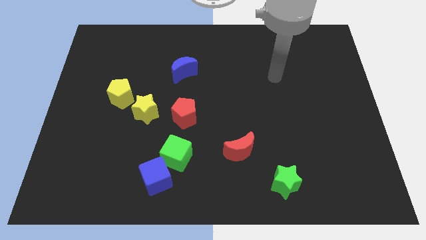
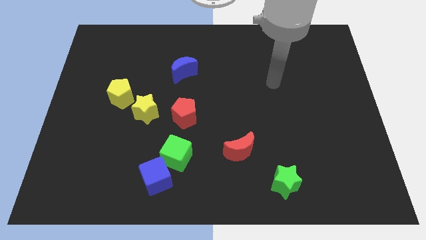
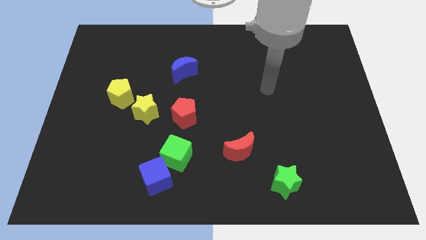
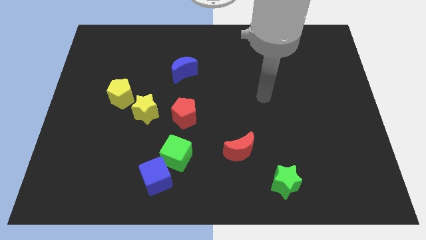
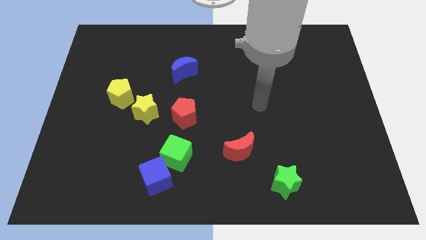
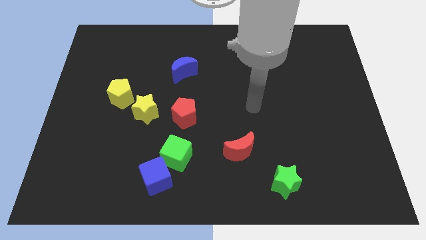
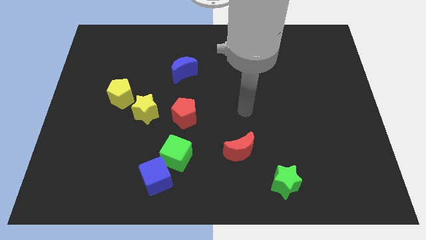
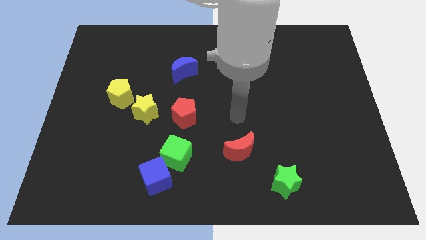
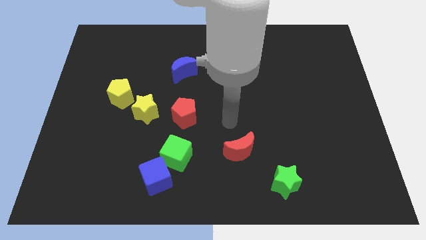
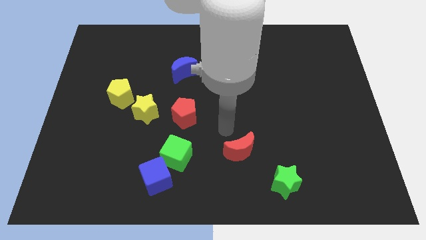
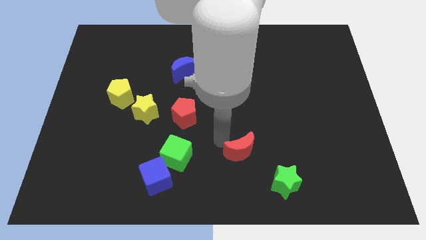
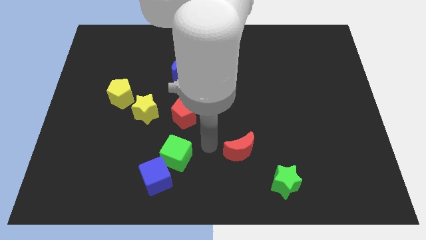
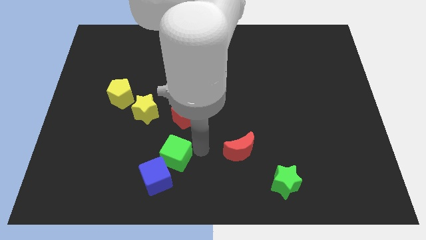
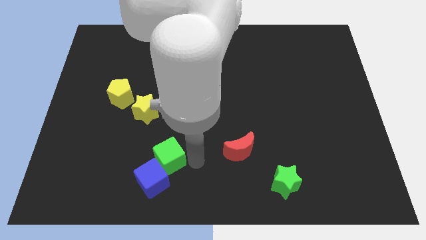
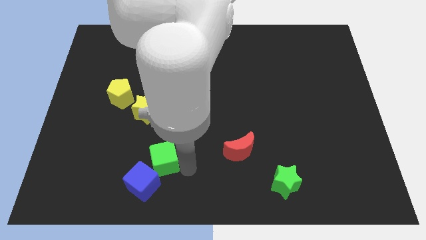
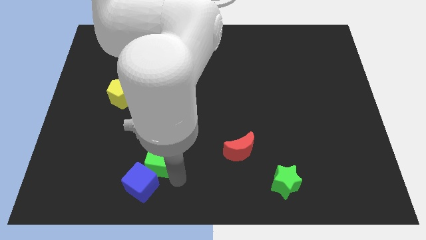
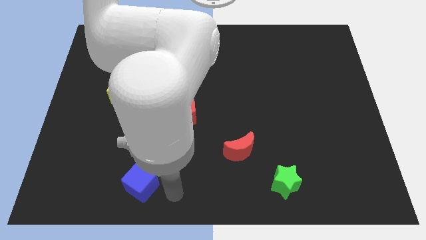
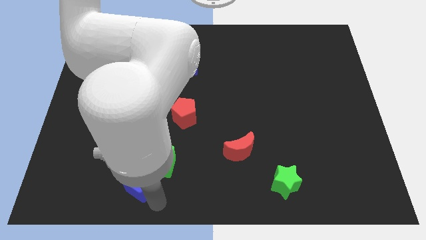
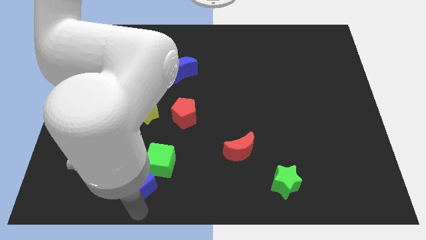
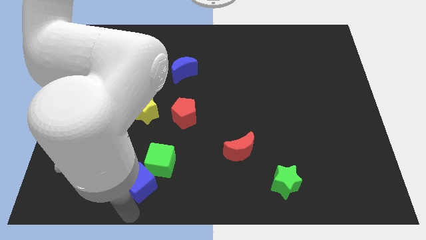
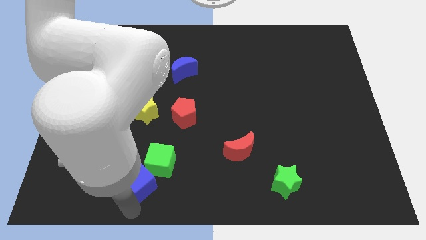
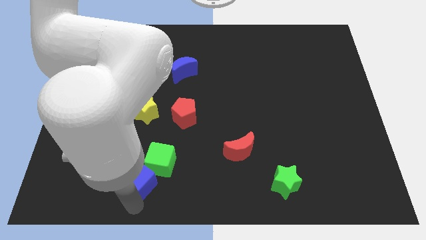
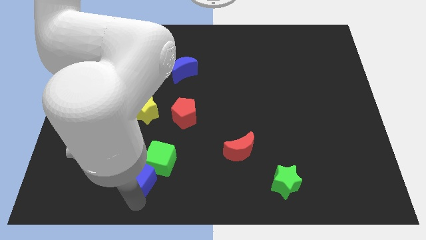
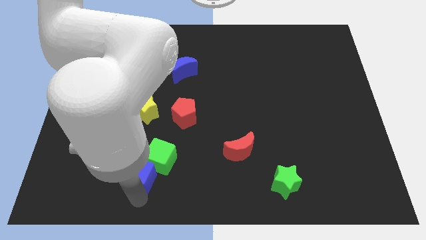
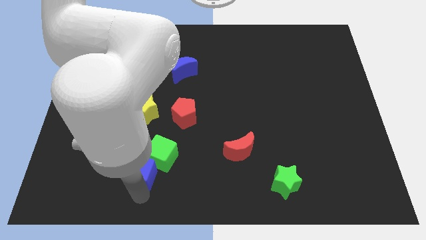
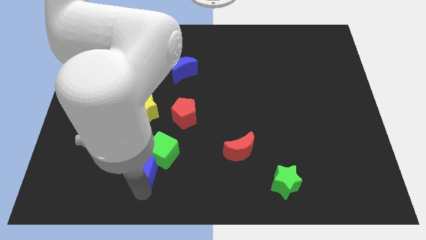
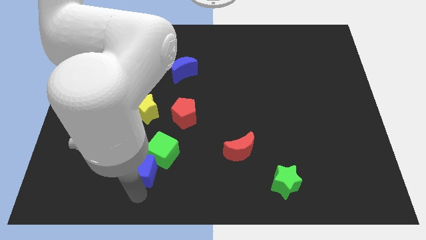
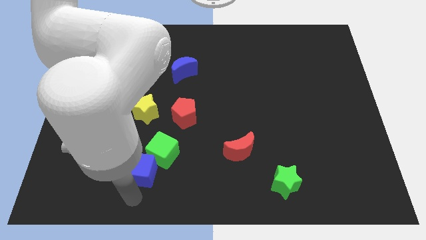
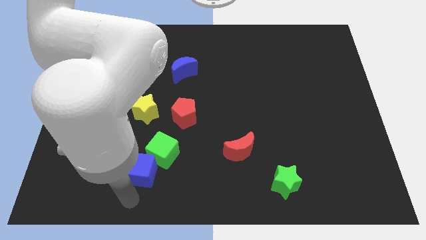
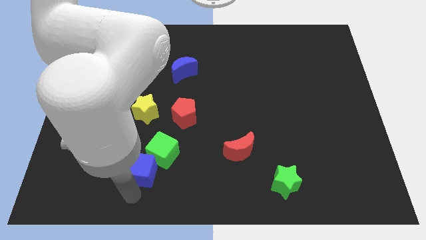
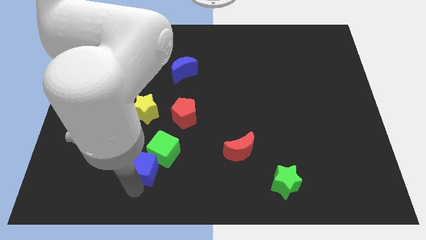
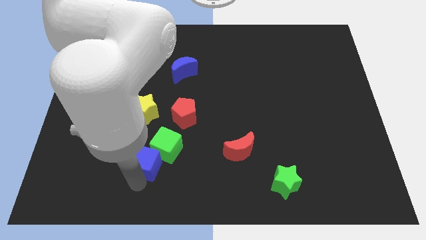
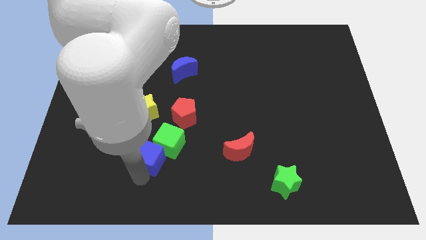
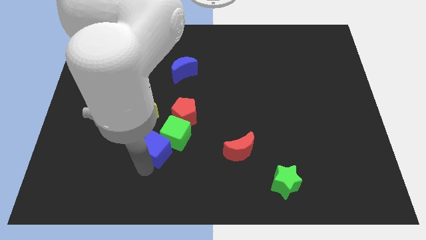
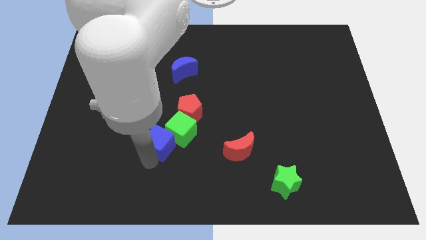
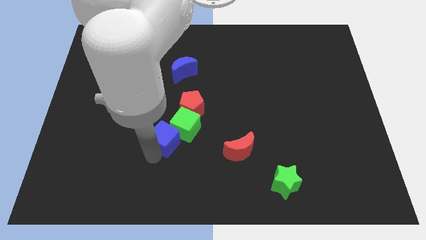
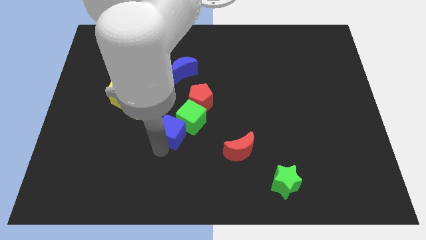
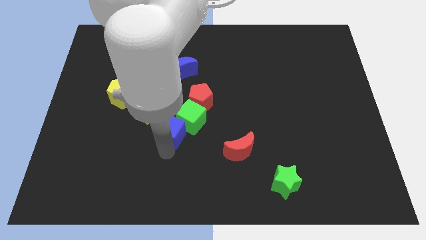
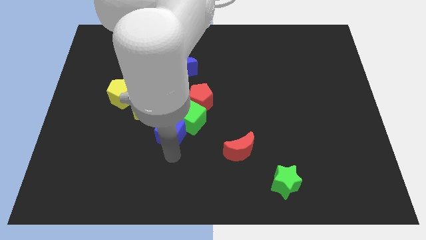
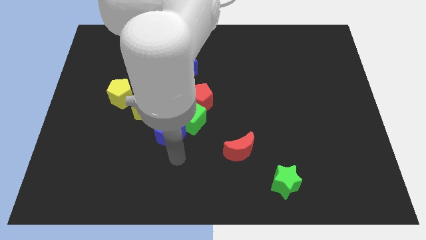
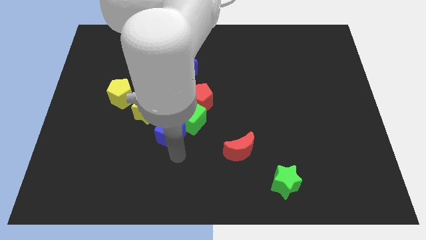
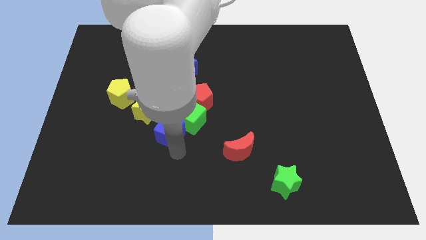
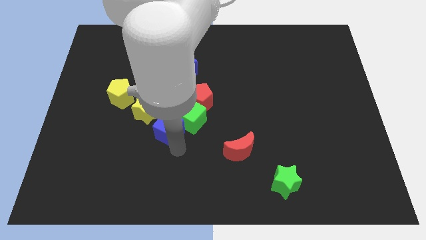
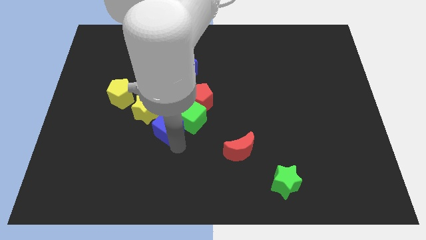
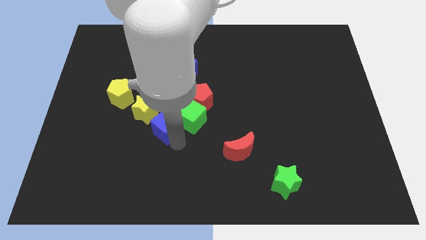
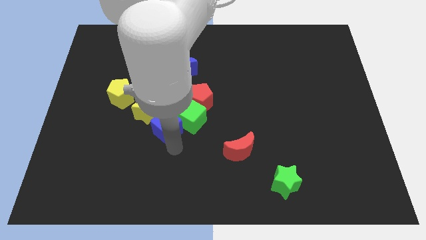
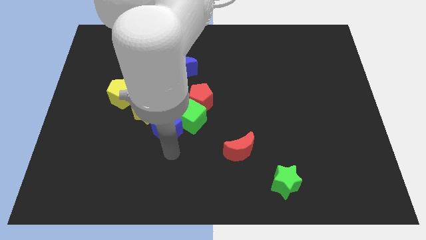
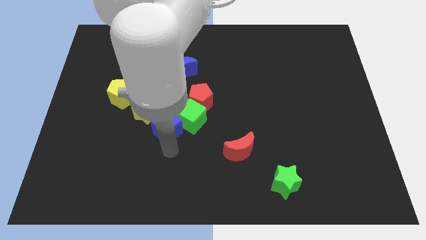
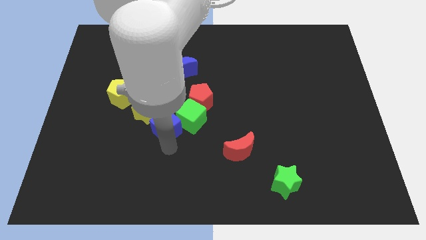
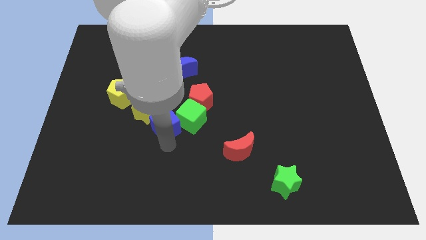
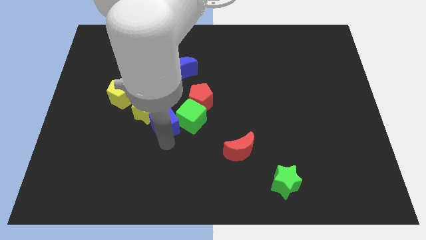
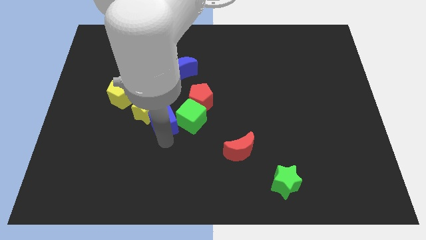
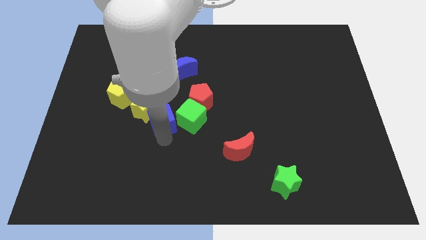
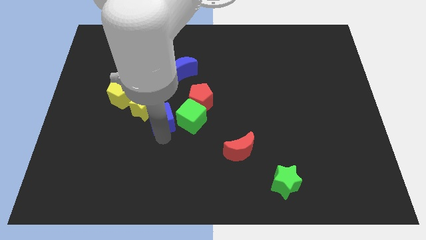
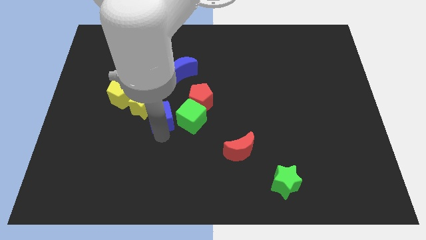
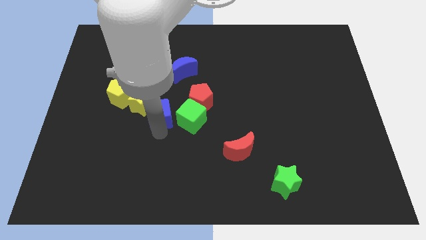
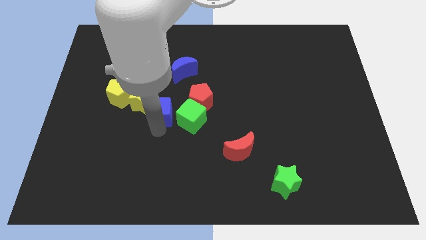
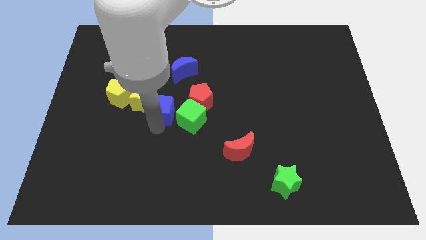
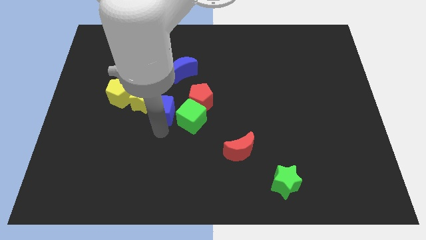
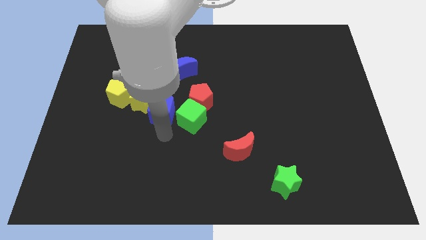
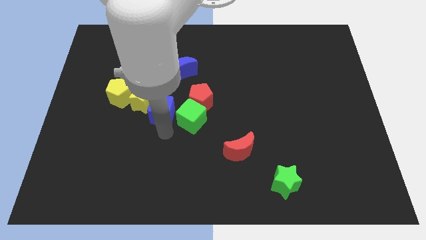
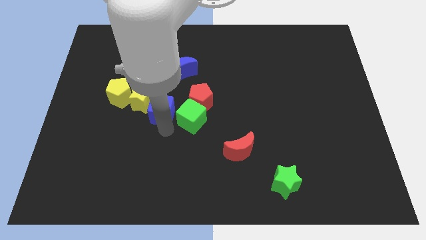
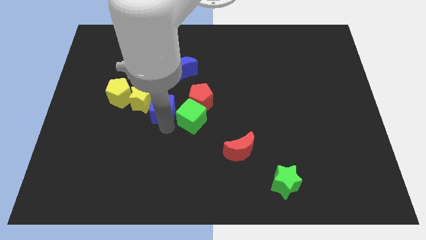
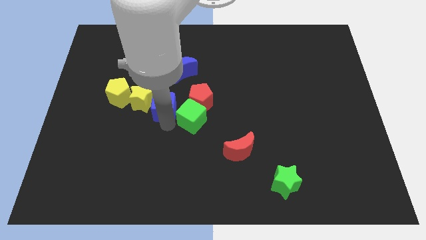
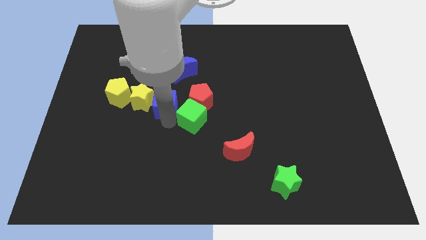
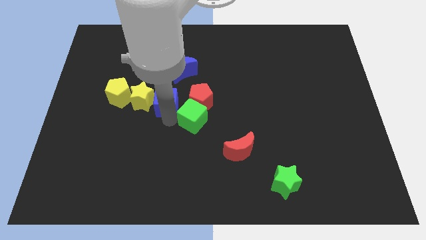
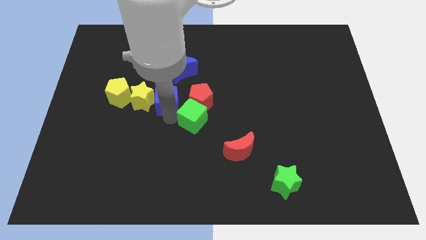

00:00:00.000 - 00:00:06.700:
push the blue cube upwards

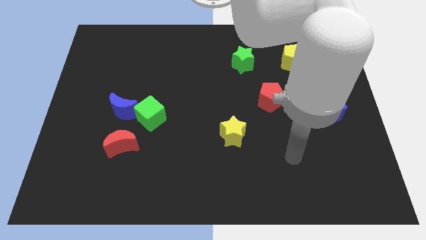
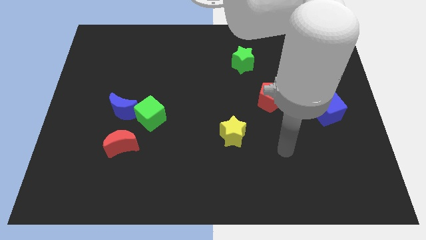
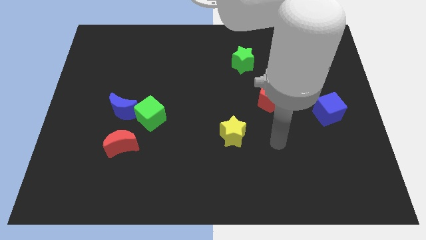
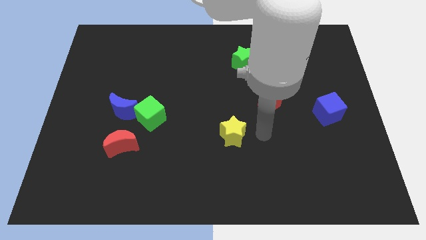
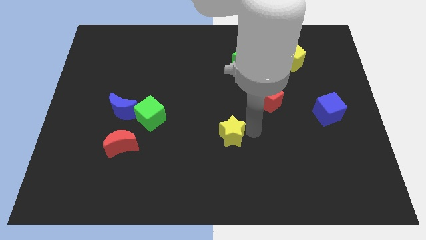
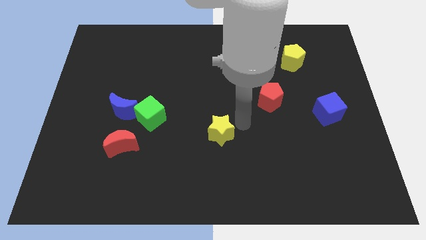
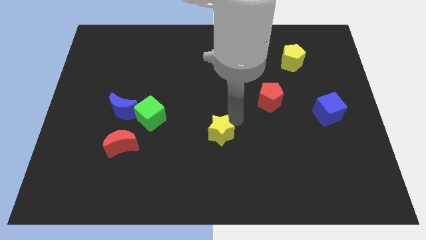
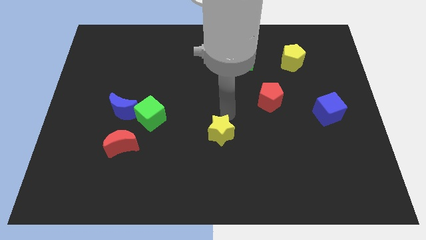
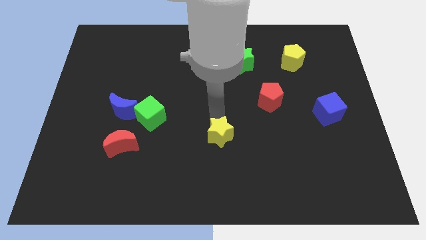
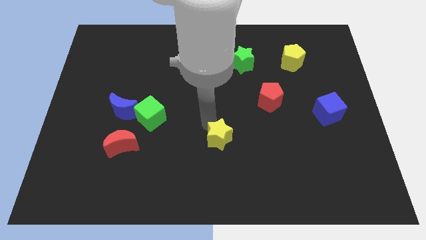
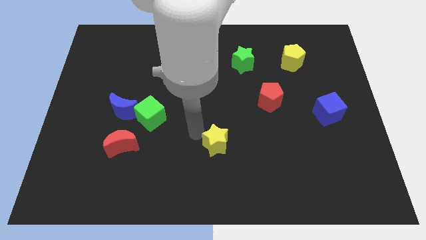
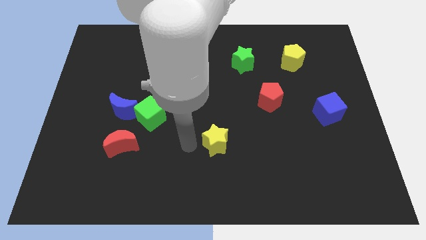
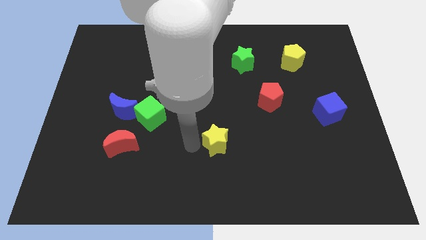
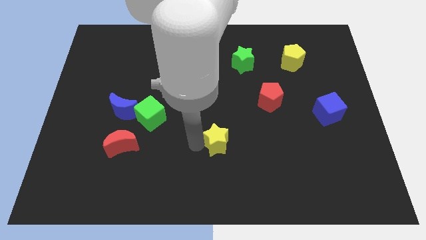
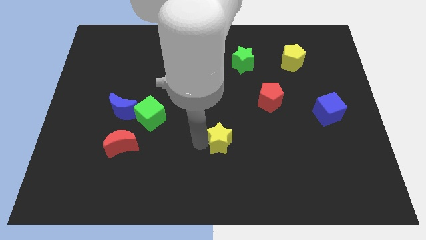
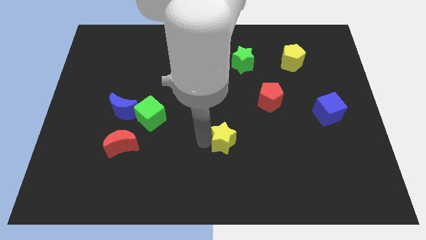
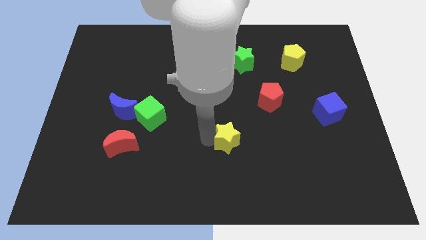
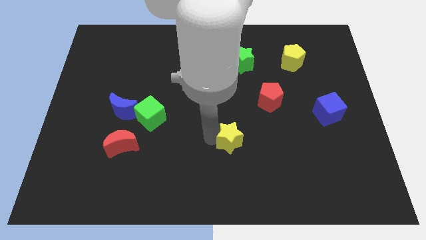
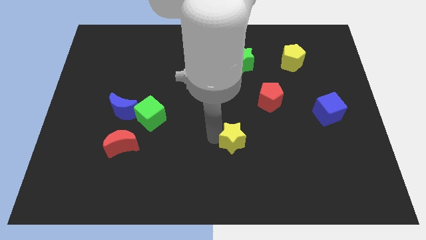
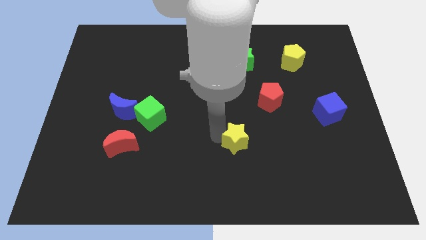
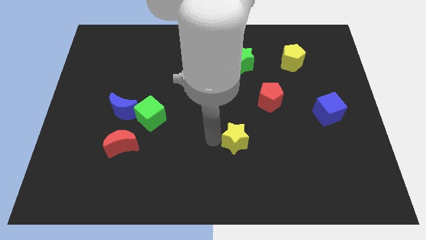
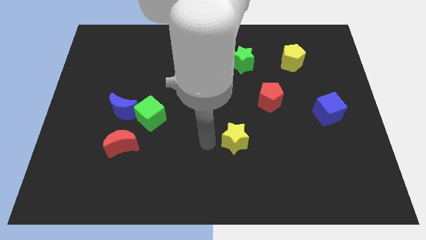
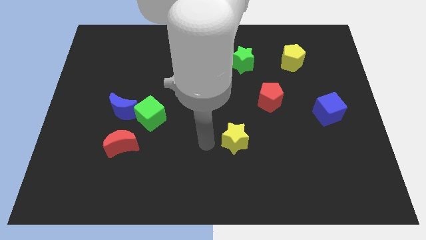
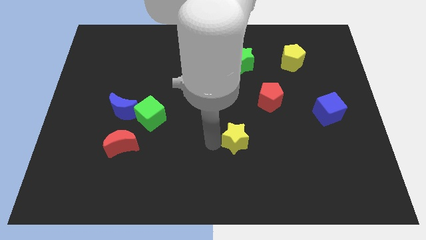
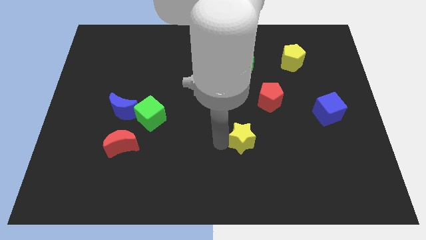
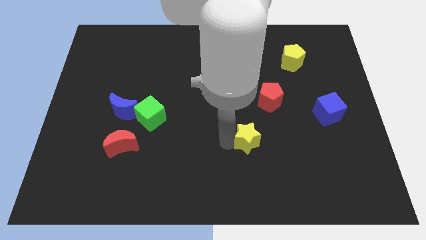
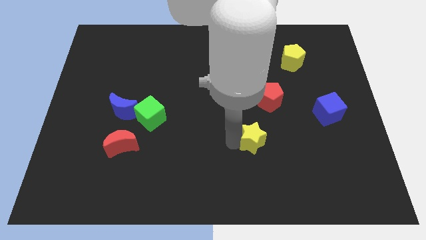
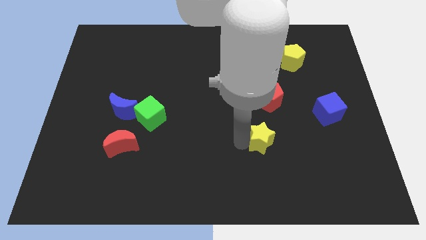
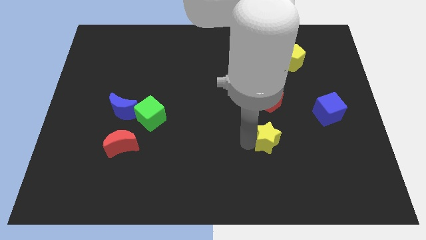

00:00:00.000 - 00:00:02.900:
slightly slide the yellow star to the right
